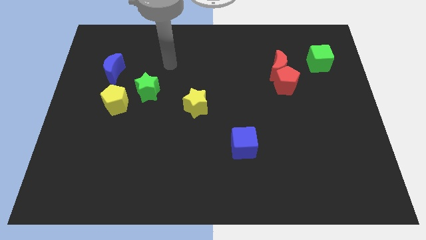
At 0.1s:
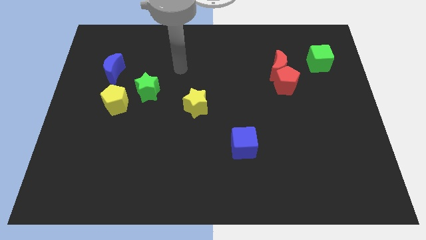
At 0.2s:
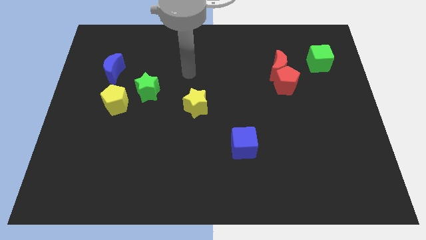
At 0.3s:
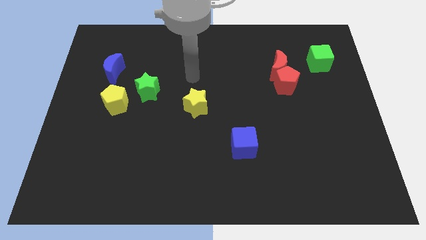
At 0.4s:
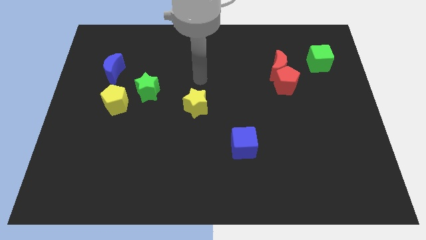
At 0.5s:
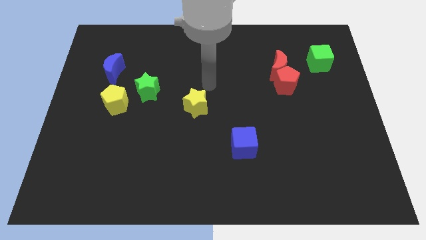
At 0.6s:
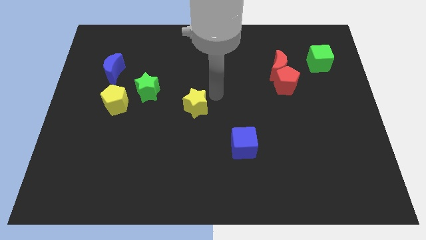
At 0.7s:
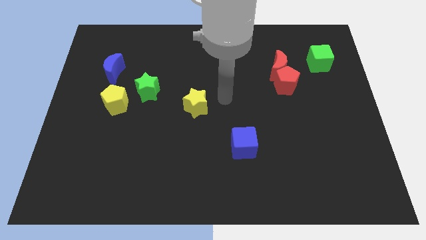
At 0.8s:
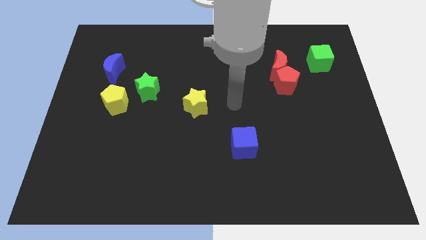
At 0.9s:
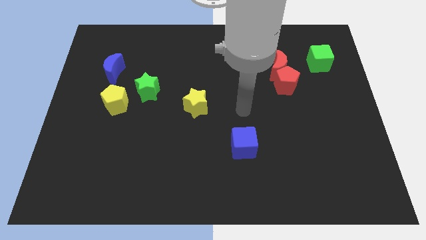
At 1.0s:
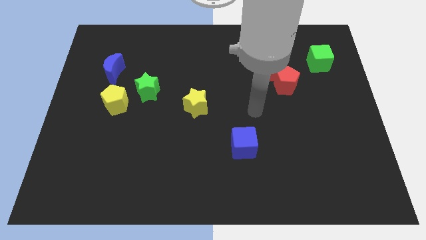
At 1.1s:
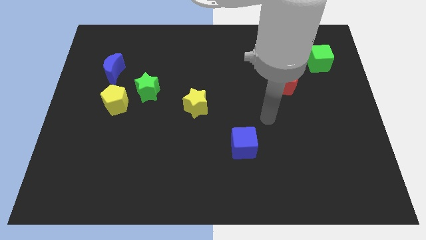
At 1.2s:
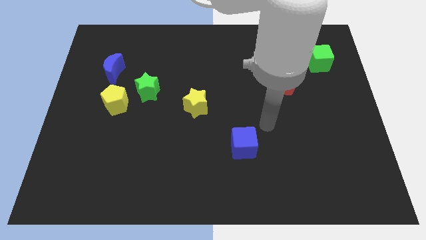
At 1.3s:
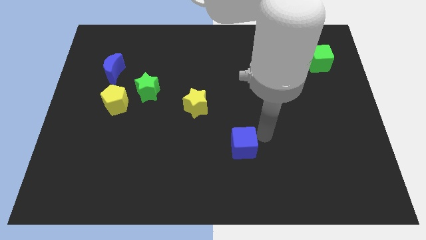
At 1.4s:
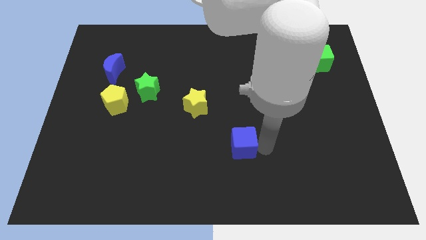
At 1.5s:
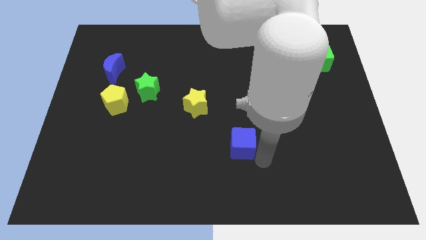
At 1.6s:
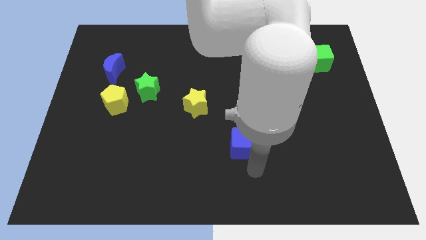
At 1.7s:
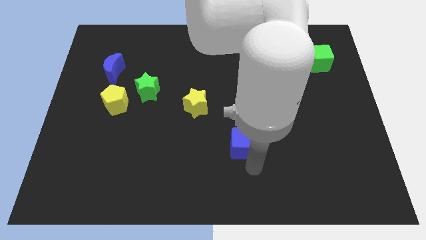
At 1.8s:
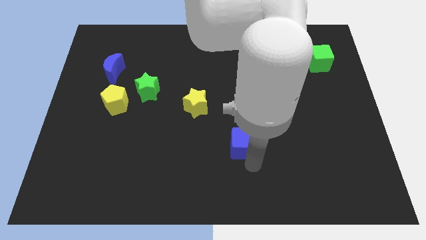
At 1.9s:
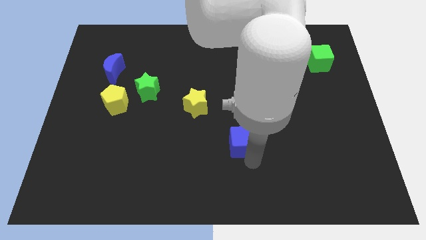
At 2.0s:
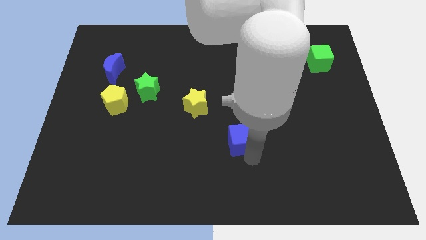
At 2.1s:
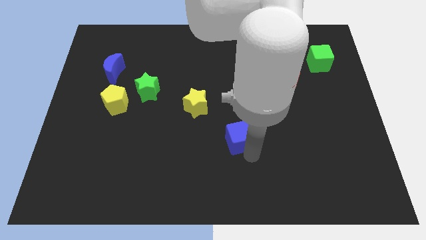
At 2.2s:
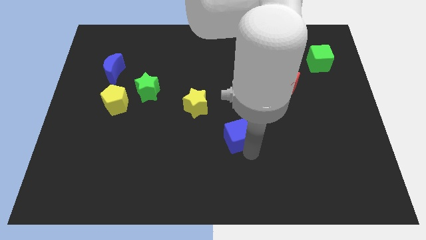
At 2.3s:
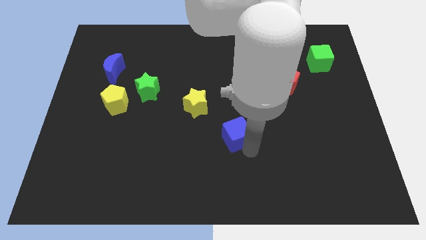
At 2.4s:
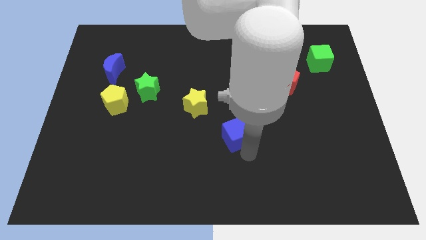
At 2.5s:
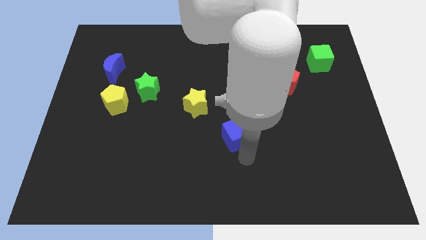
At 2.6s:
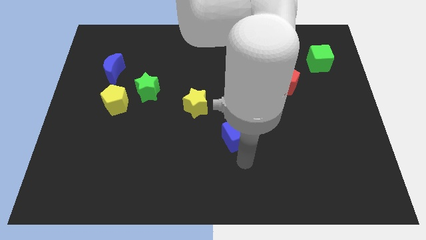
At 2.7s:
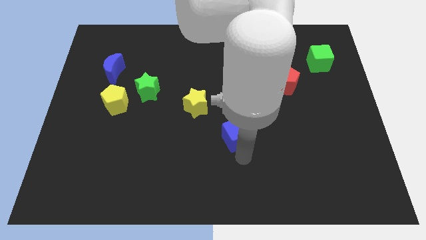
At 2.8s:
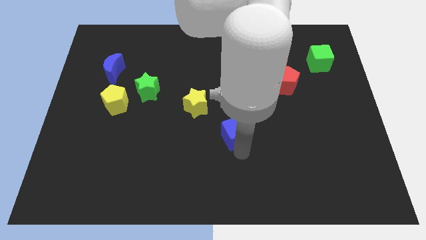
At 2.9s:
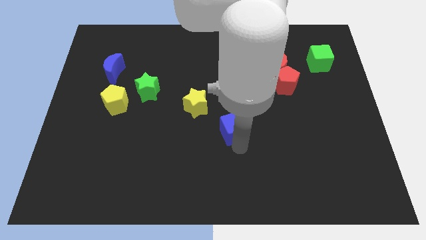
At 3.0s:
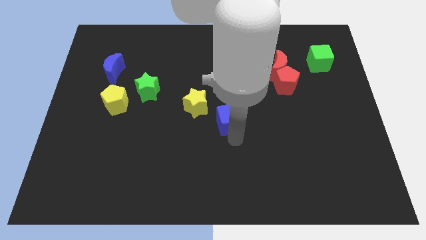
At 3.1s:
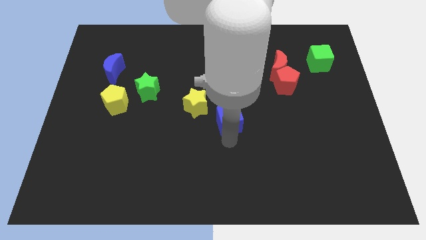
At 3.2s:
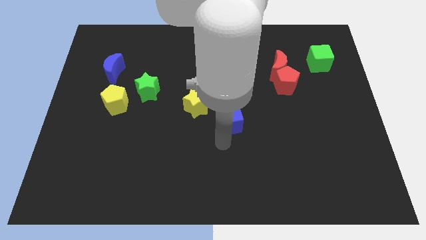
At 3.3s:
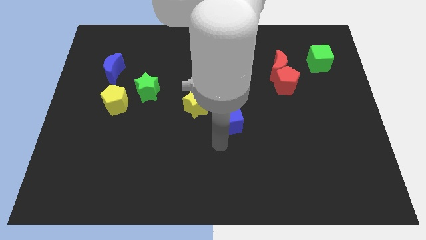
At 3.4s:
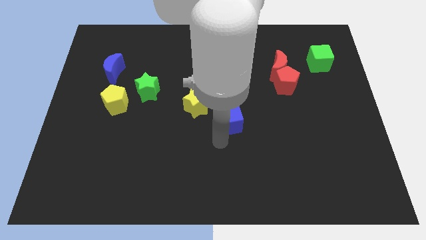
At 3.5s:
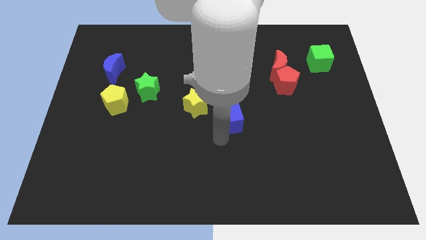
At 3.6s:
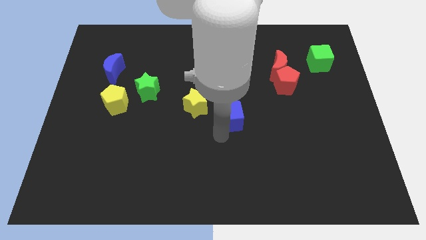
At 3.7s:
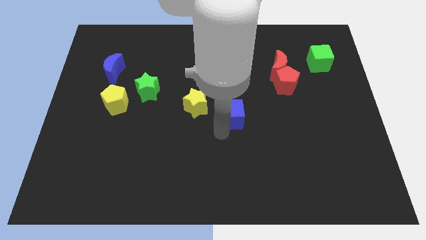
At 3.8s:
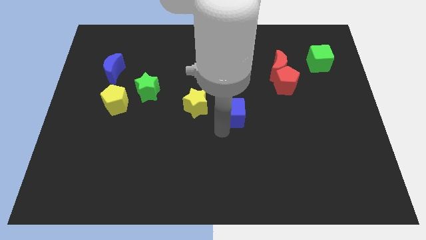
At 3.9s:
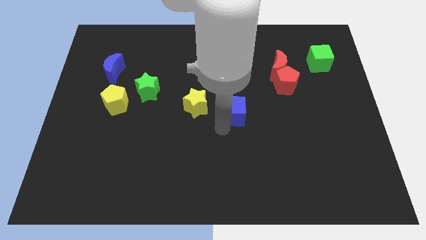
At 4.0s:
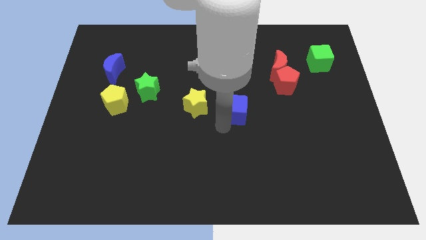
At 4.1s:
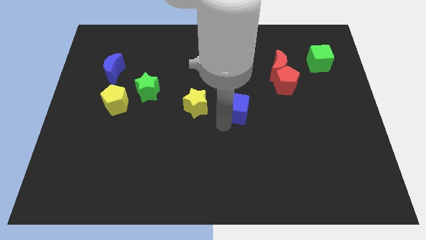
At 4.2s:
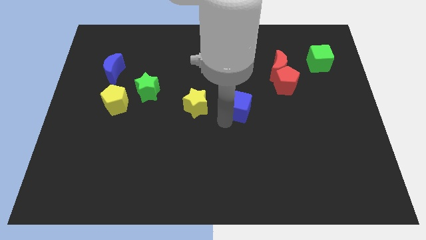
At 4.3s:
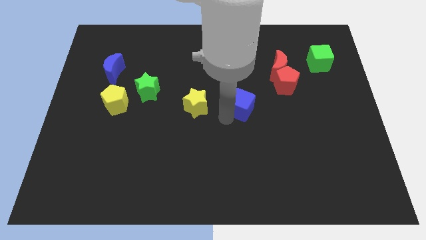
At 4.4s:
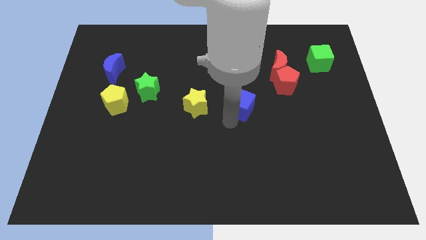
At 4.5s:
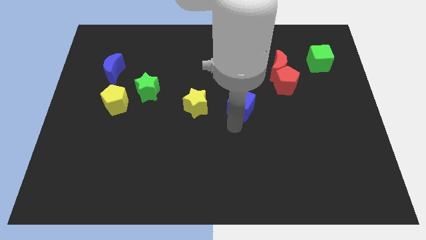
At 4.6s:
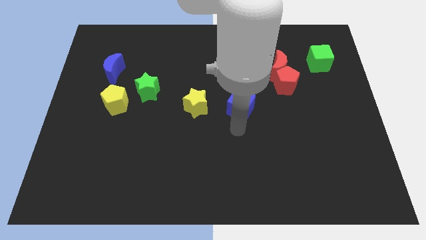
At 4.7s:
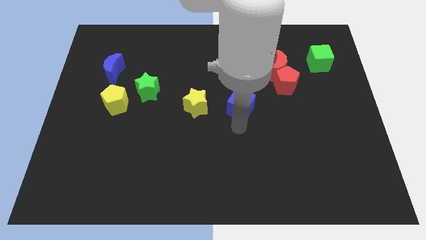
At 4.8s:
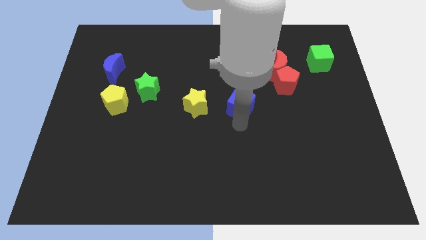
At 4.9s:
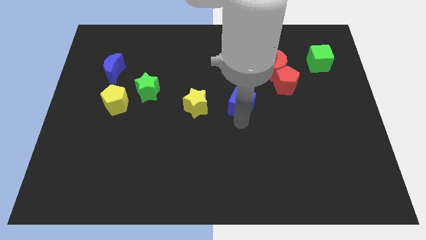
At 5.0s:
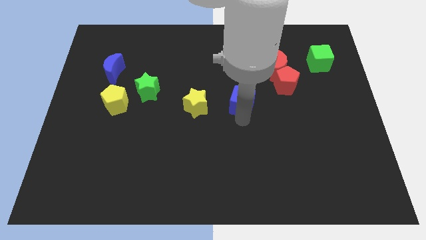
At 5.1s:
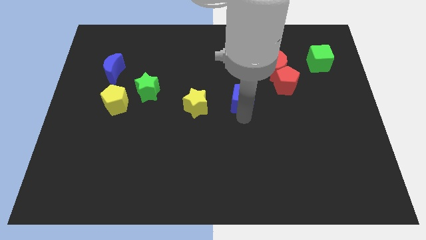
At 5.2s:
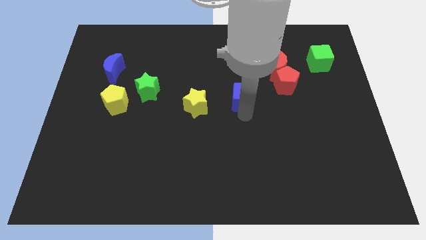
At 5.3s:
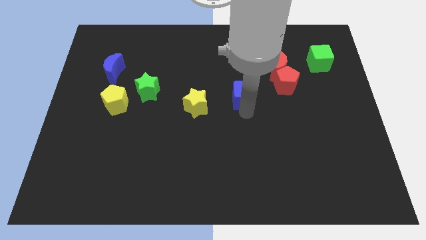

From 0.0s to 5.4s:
push the blue cube just left of the red pentagon

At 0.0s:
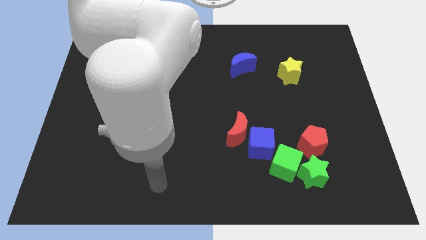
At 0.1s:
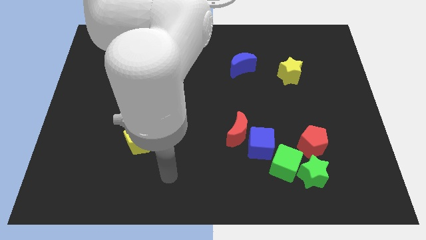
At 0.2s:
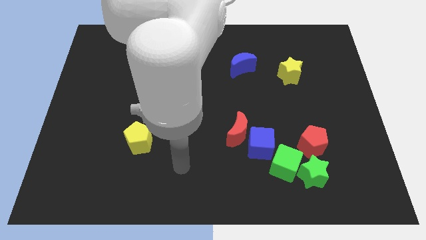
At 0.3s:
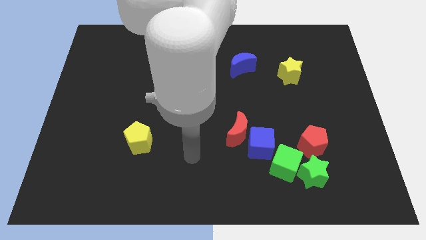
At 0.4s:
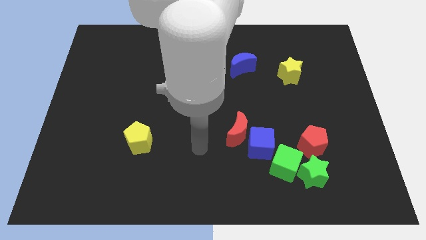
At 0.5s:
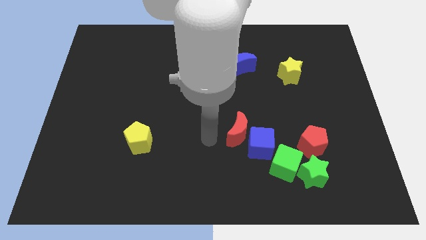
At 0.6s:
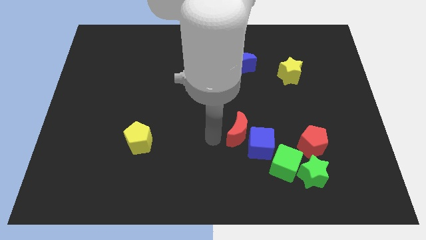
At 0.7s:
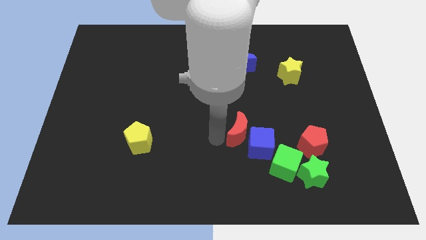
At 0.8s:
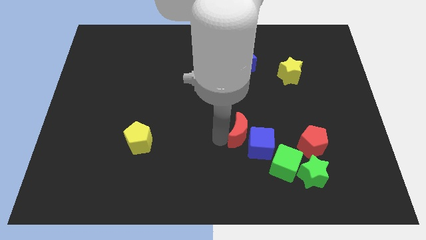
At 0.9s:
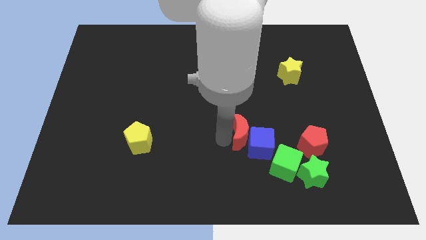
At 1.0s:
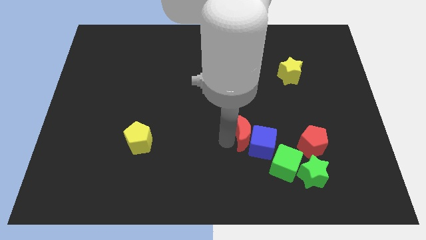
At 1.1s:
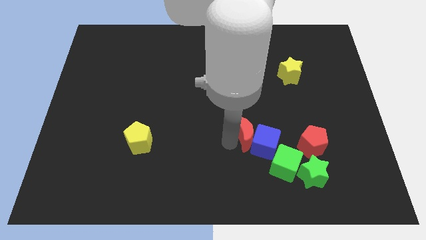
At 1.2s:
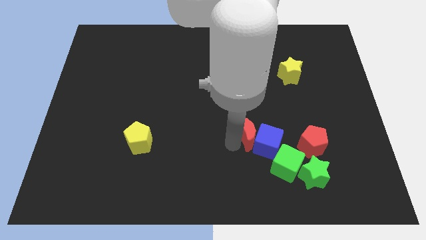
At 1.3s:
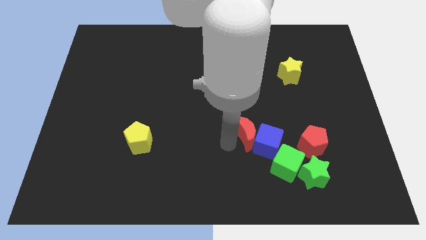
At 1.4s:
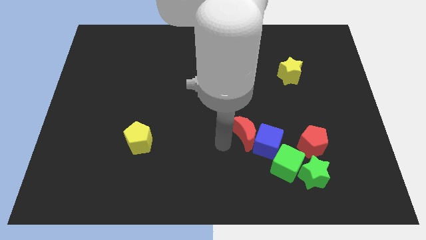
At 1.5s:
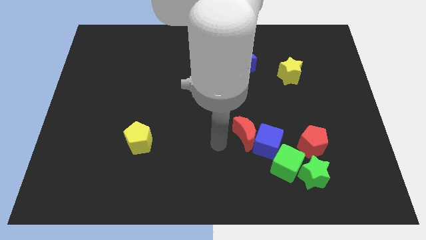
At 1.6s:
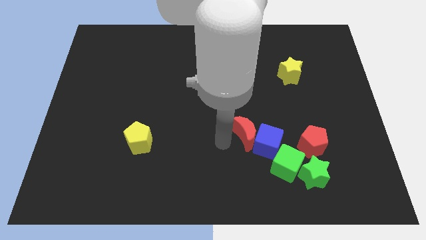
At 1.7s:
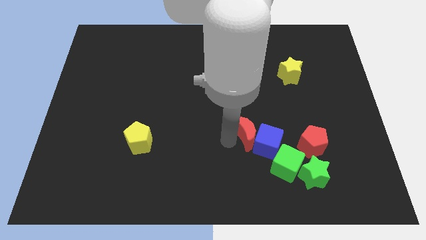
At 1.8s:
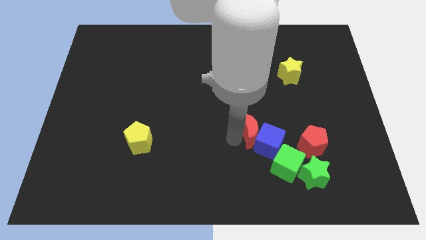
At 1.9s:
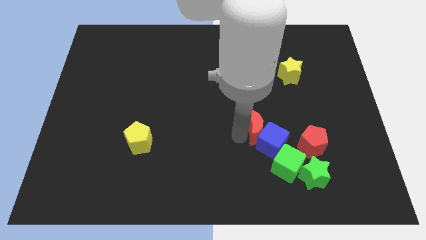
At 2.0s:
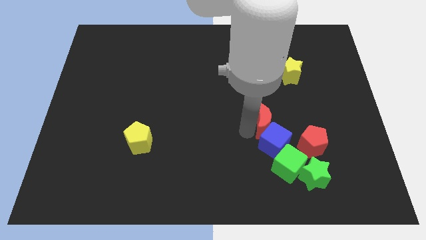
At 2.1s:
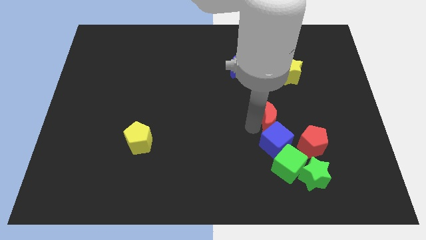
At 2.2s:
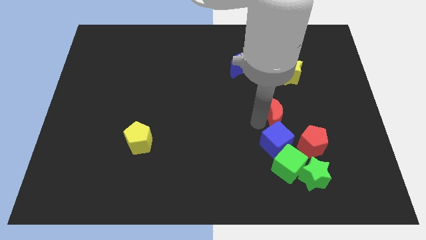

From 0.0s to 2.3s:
move the red moon diagonally up and to the right of the blue cube
